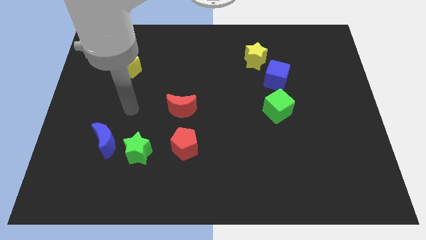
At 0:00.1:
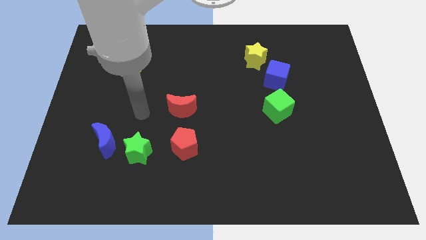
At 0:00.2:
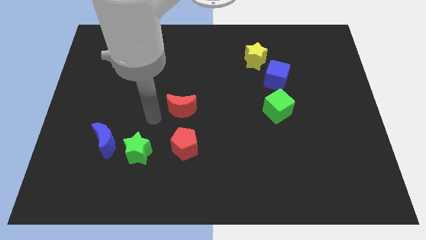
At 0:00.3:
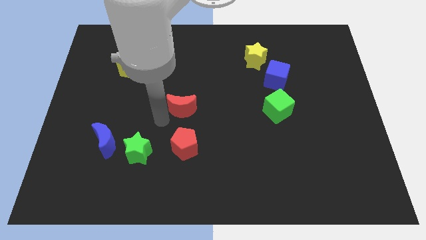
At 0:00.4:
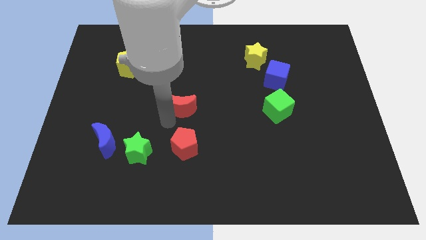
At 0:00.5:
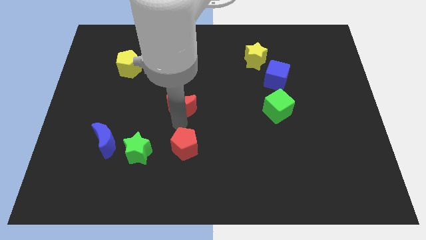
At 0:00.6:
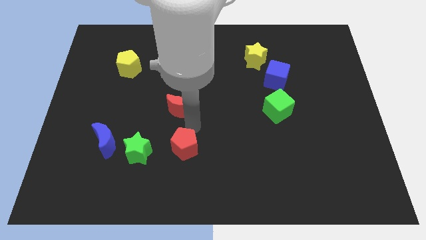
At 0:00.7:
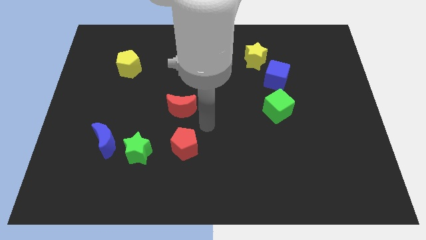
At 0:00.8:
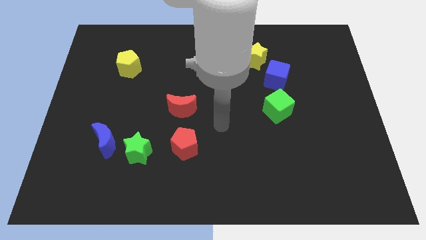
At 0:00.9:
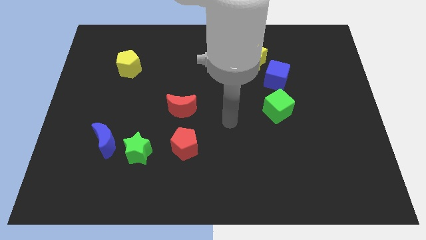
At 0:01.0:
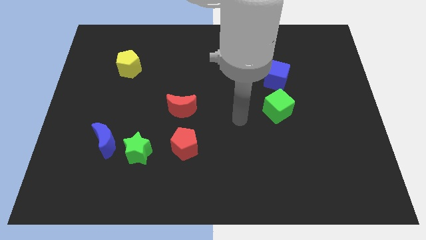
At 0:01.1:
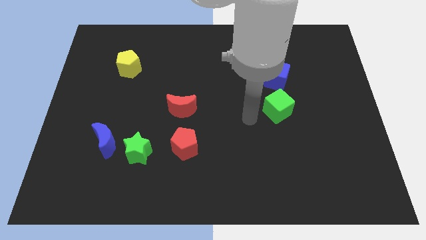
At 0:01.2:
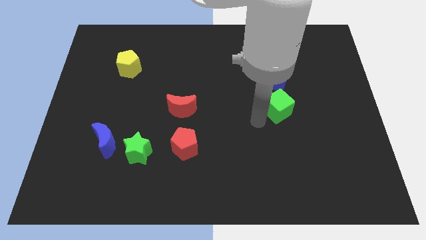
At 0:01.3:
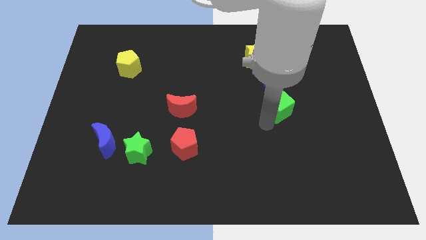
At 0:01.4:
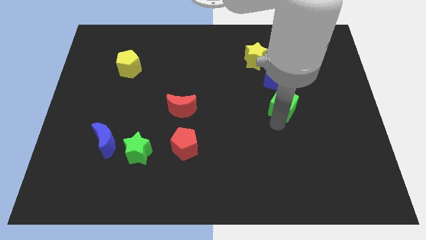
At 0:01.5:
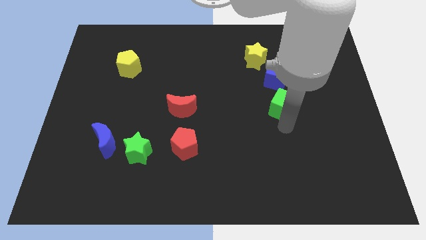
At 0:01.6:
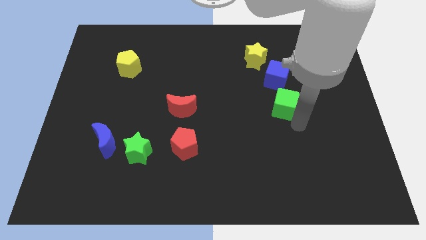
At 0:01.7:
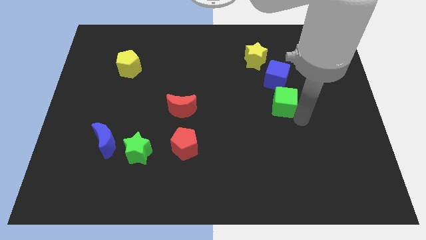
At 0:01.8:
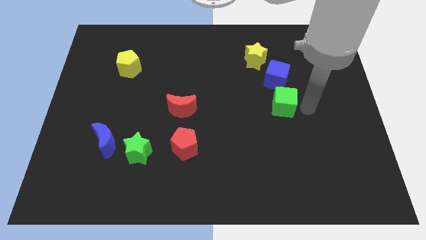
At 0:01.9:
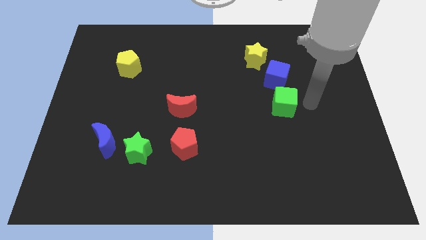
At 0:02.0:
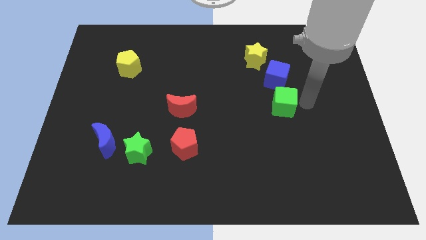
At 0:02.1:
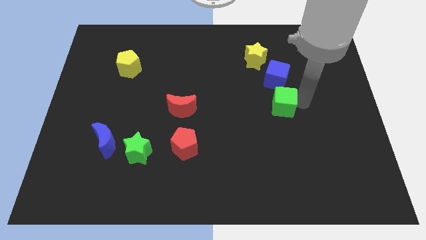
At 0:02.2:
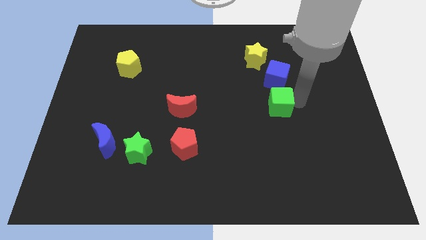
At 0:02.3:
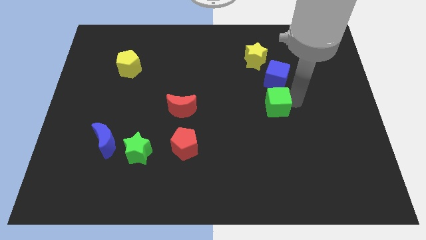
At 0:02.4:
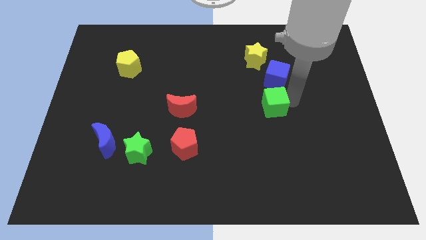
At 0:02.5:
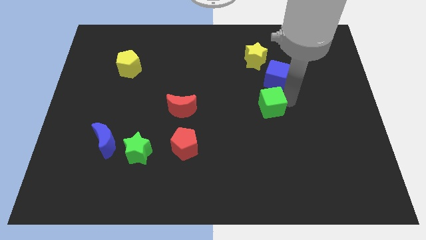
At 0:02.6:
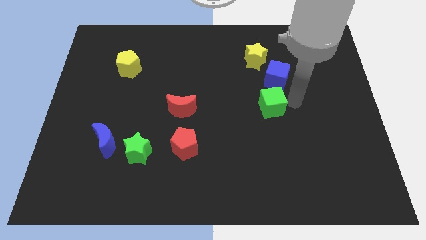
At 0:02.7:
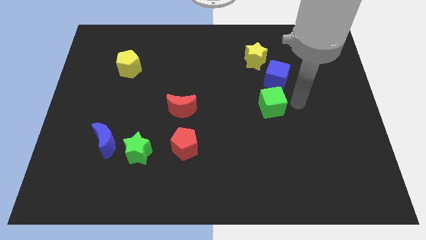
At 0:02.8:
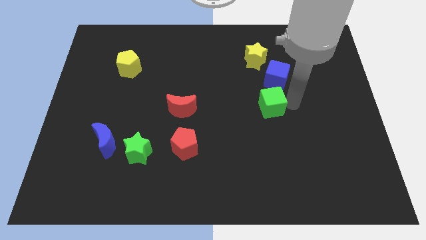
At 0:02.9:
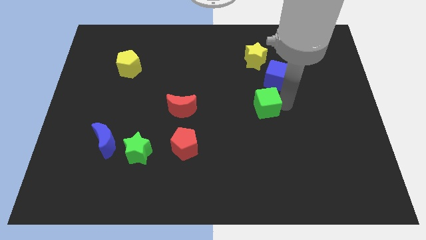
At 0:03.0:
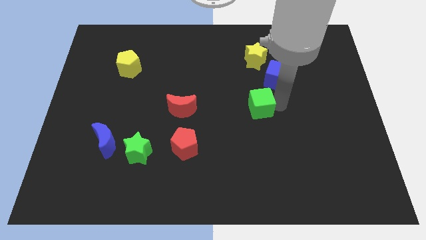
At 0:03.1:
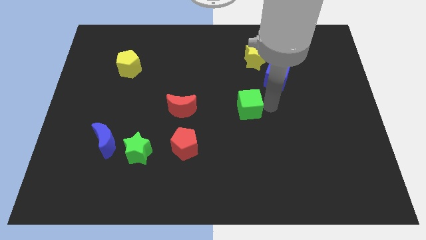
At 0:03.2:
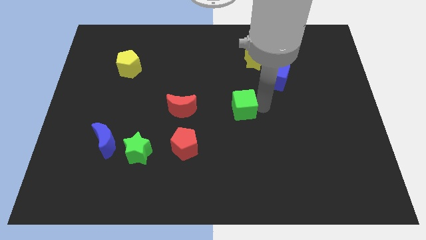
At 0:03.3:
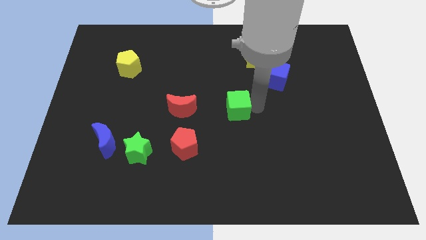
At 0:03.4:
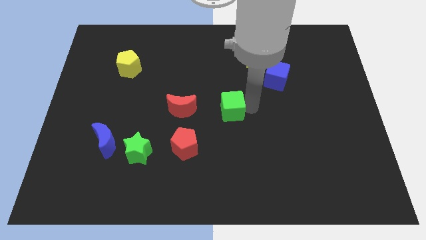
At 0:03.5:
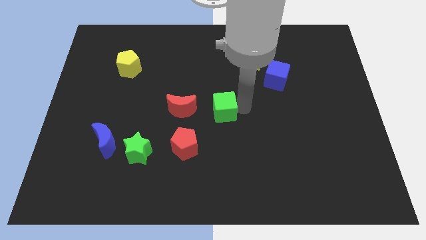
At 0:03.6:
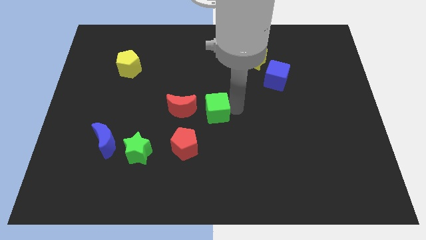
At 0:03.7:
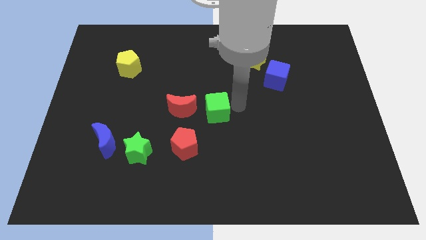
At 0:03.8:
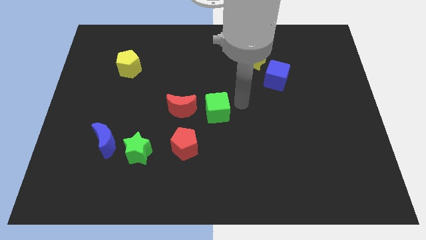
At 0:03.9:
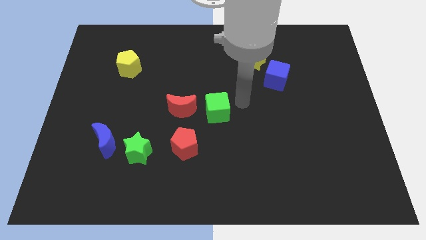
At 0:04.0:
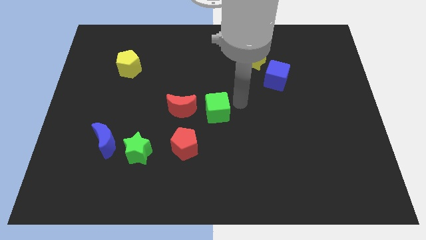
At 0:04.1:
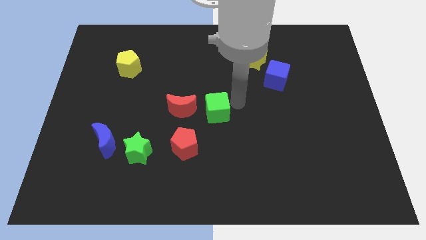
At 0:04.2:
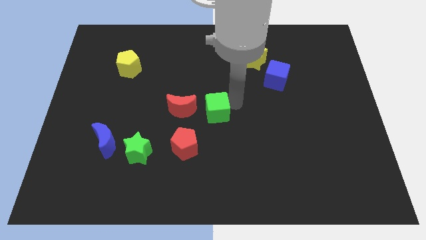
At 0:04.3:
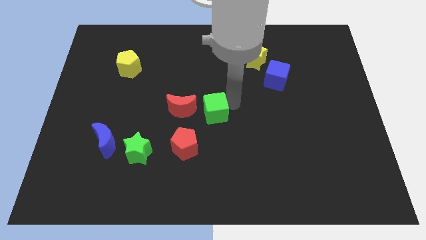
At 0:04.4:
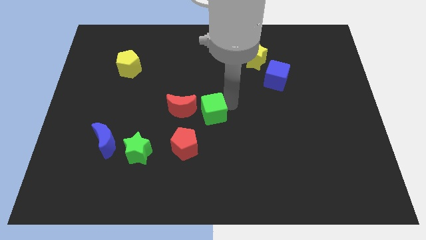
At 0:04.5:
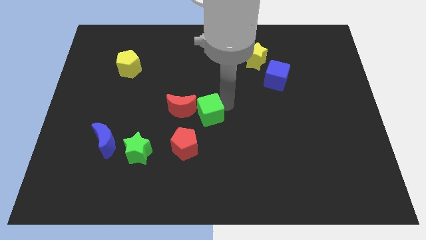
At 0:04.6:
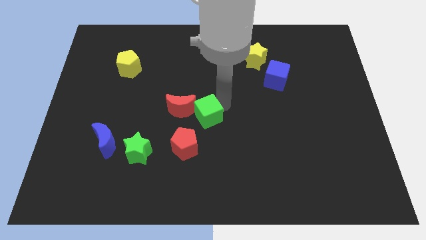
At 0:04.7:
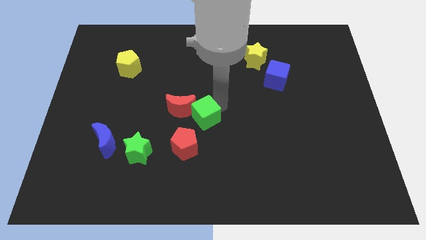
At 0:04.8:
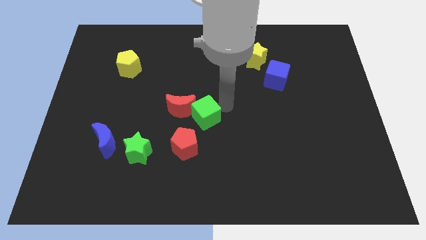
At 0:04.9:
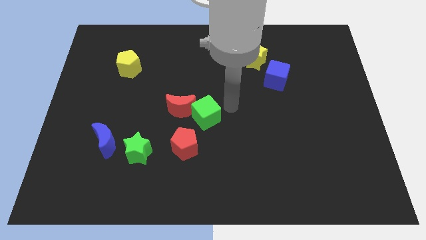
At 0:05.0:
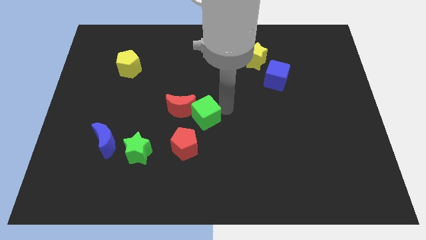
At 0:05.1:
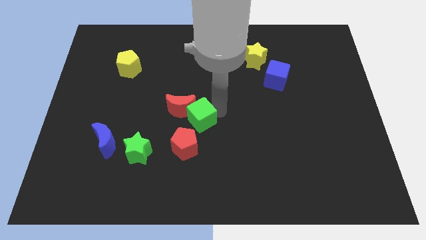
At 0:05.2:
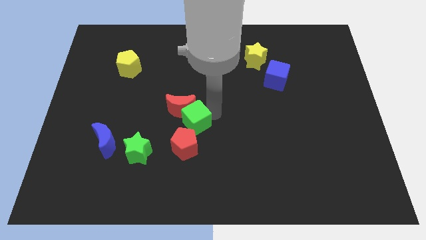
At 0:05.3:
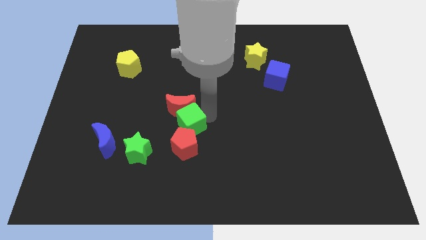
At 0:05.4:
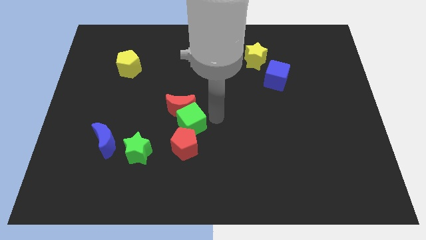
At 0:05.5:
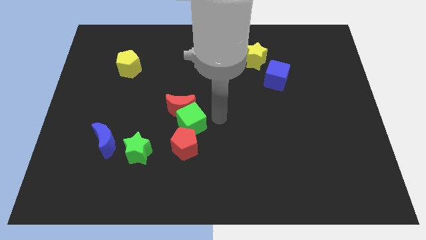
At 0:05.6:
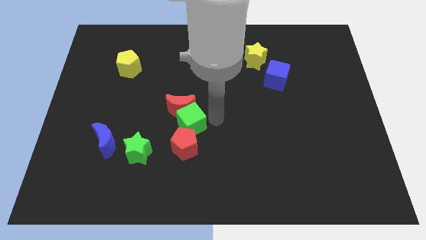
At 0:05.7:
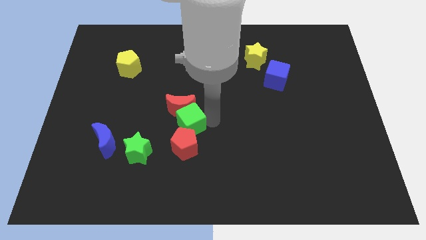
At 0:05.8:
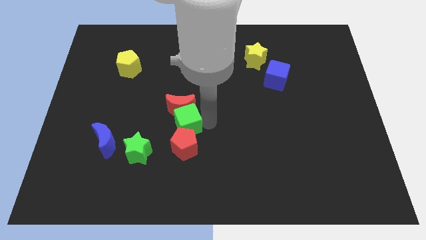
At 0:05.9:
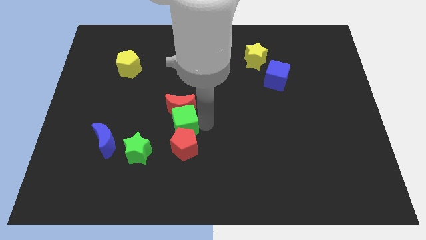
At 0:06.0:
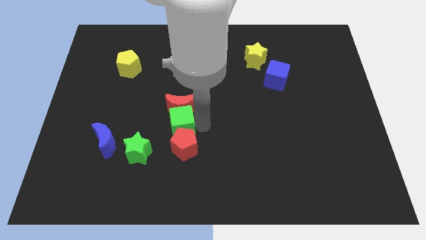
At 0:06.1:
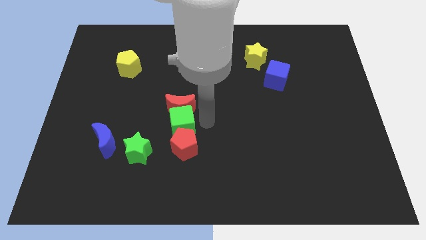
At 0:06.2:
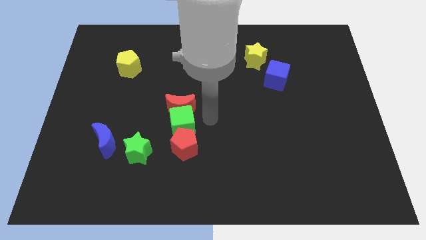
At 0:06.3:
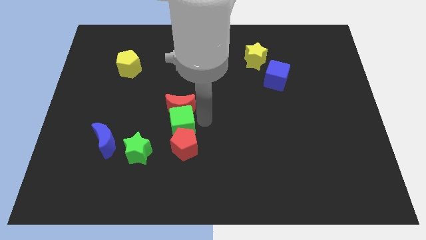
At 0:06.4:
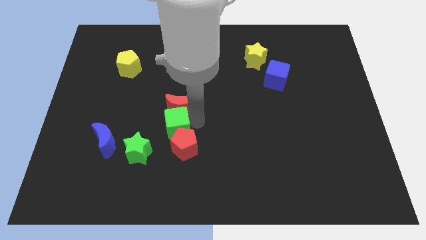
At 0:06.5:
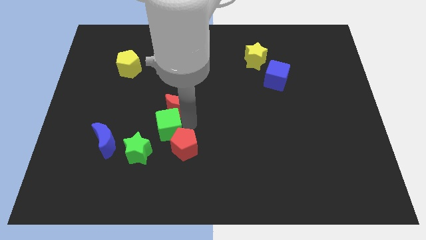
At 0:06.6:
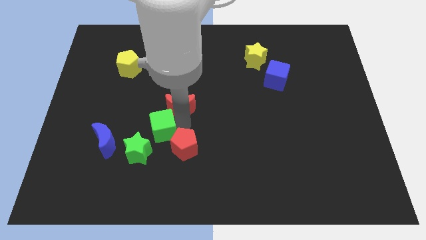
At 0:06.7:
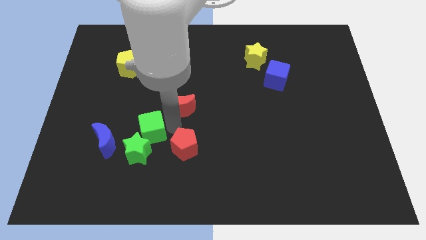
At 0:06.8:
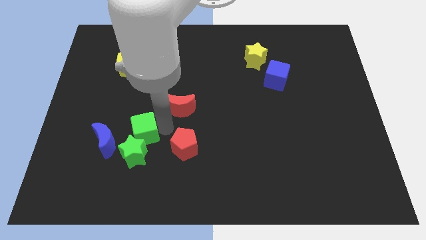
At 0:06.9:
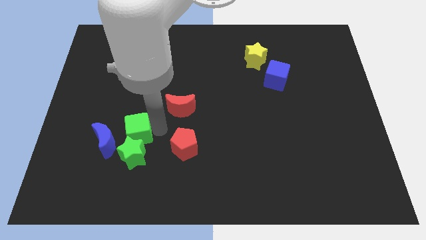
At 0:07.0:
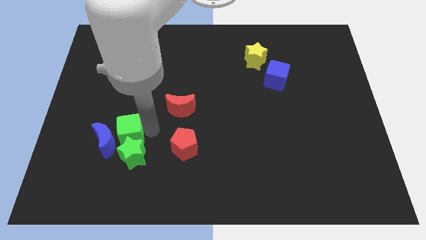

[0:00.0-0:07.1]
push the green cube to the blue moon

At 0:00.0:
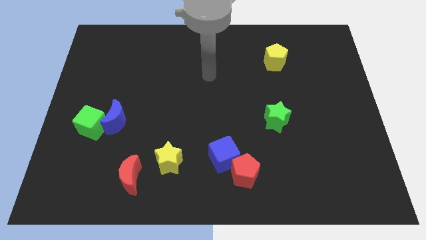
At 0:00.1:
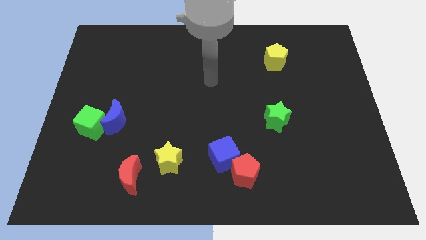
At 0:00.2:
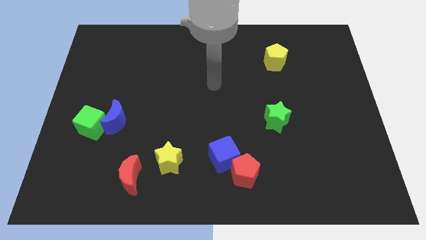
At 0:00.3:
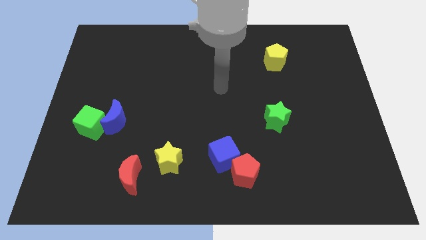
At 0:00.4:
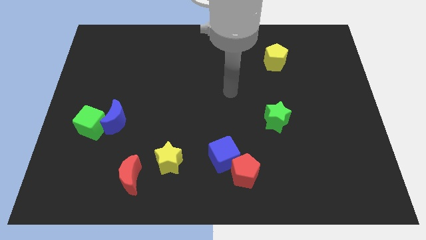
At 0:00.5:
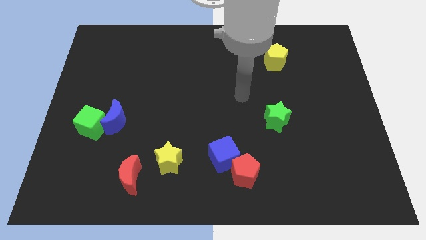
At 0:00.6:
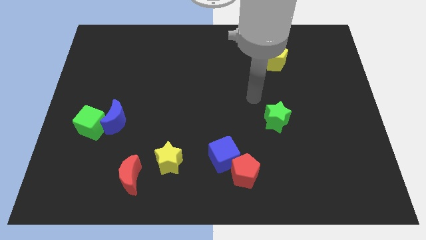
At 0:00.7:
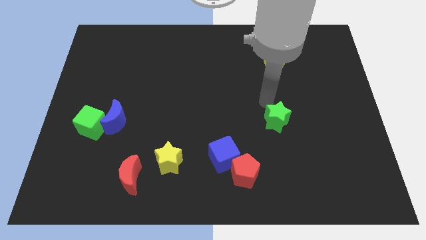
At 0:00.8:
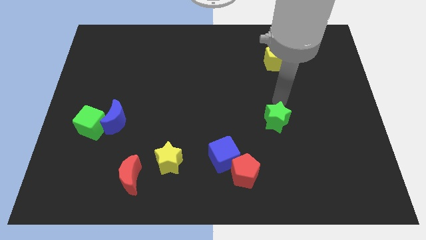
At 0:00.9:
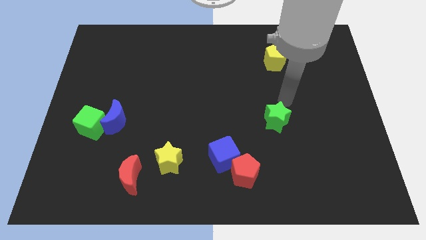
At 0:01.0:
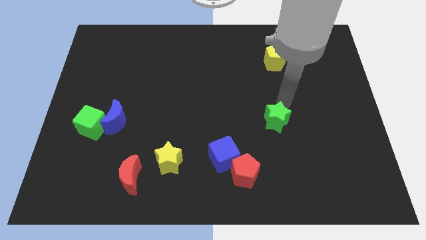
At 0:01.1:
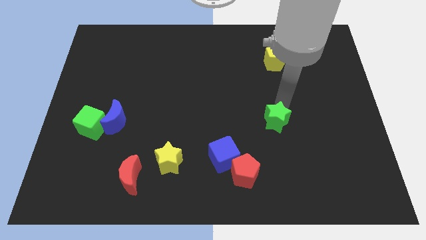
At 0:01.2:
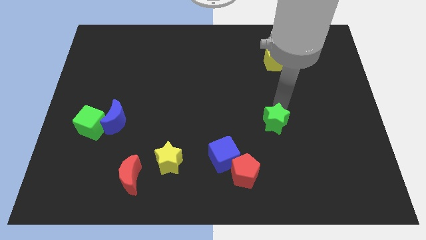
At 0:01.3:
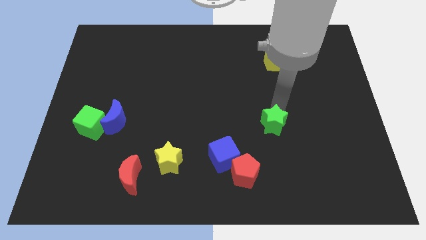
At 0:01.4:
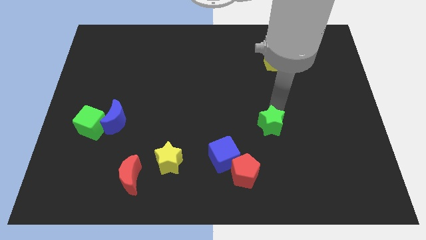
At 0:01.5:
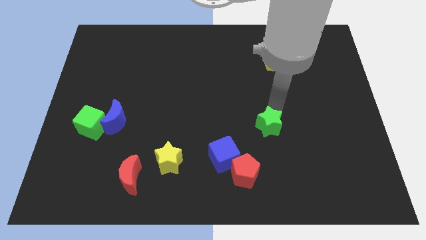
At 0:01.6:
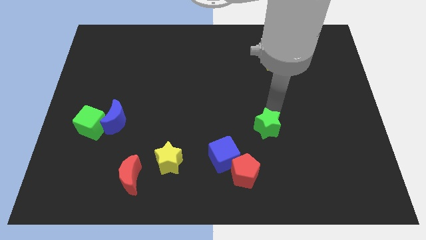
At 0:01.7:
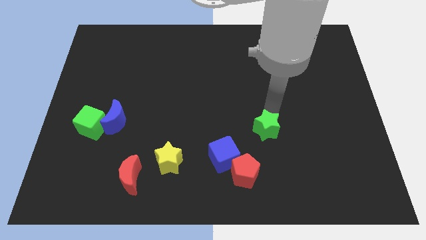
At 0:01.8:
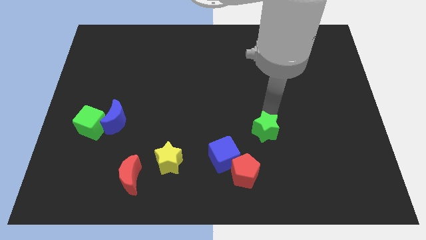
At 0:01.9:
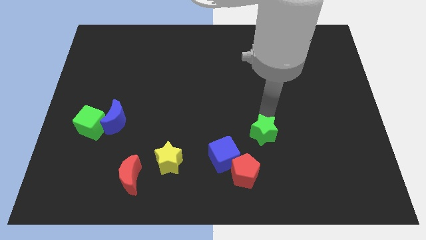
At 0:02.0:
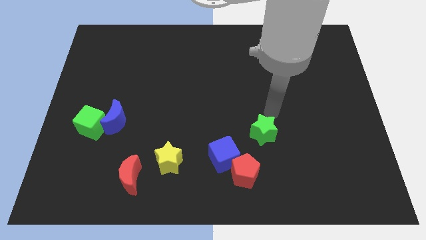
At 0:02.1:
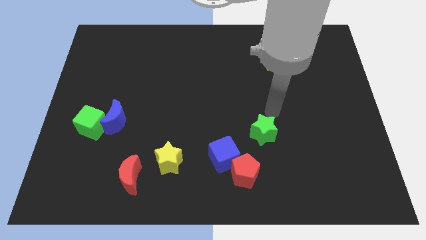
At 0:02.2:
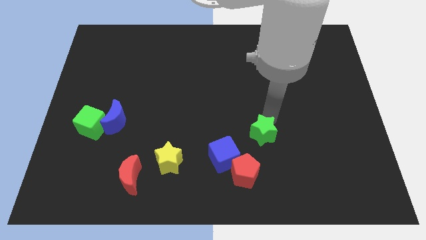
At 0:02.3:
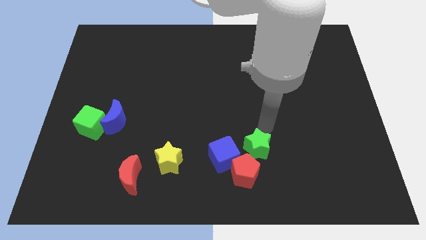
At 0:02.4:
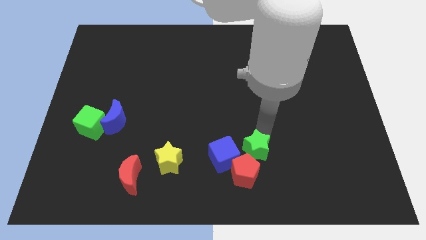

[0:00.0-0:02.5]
move the green star close to the red pentagon
